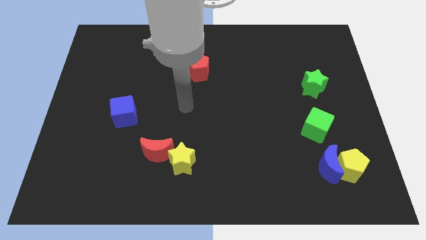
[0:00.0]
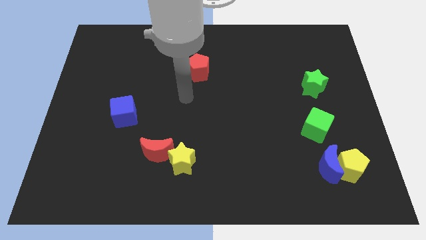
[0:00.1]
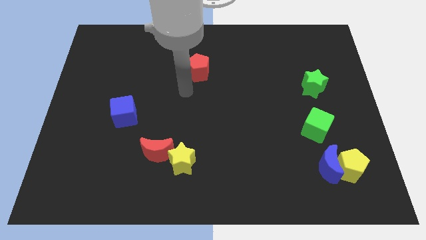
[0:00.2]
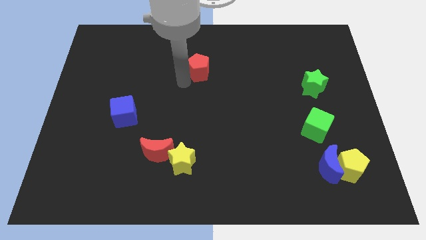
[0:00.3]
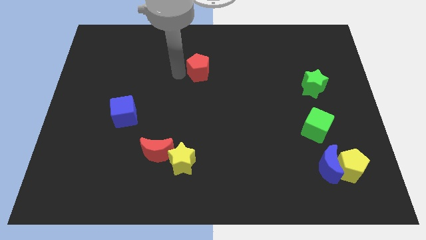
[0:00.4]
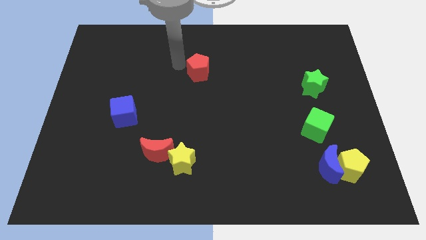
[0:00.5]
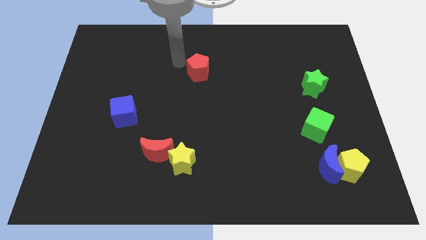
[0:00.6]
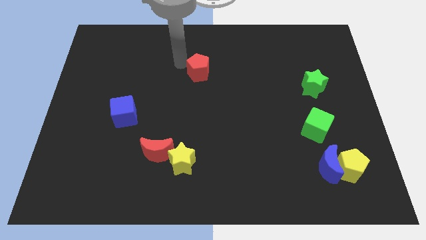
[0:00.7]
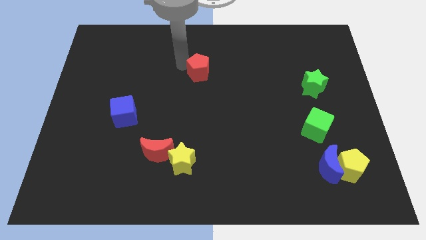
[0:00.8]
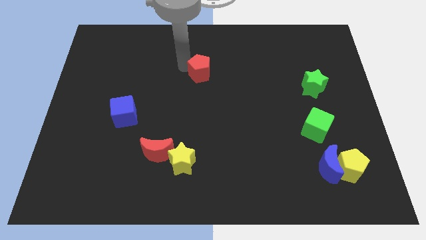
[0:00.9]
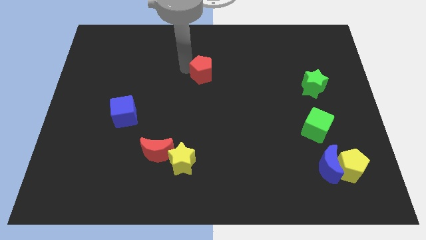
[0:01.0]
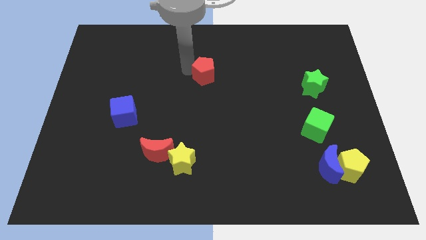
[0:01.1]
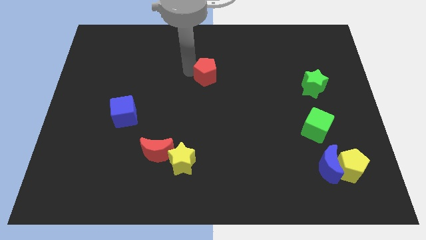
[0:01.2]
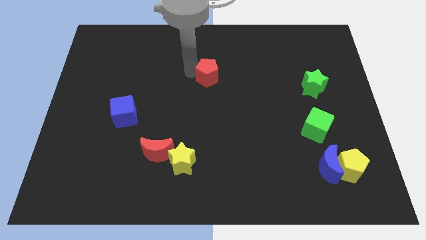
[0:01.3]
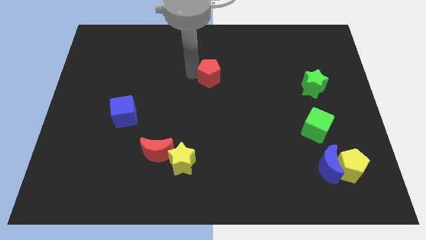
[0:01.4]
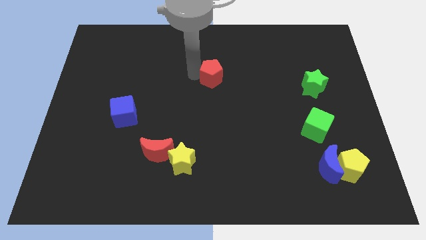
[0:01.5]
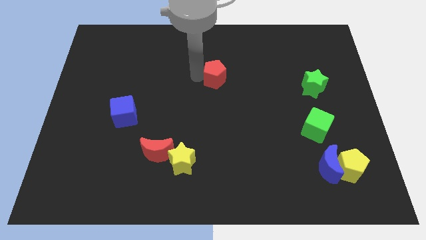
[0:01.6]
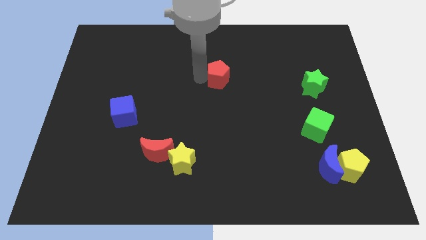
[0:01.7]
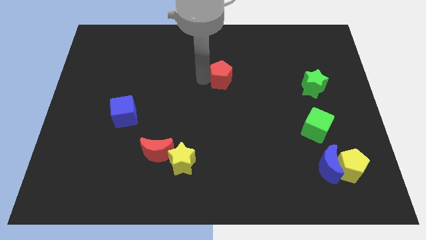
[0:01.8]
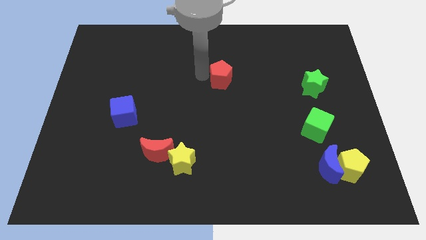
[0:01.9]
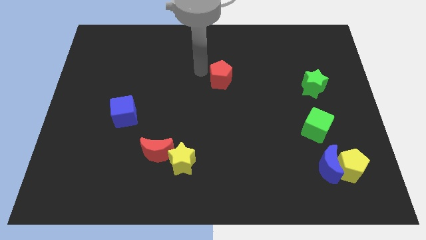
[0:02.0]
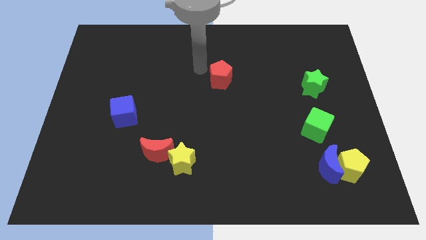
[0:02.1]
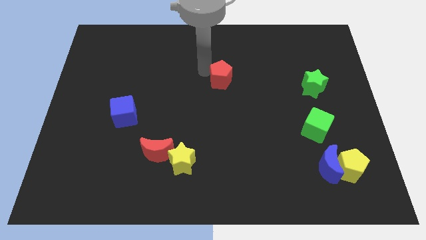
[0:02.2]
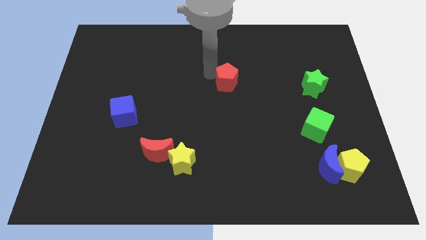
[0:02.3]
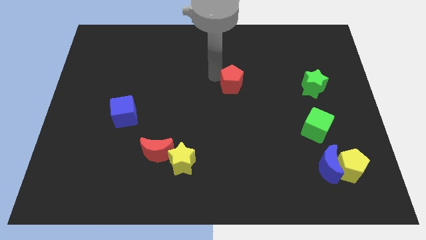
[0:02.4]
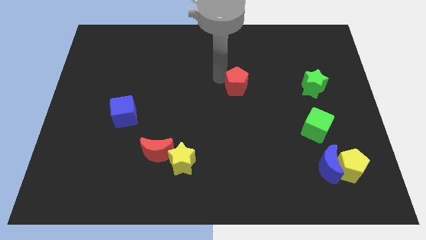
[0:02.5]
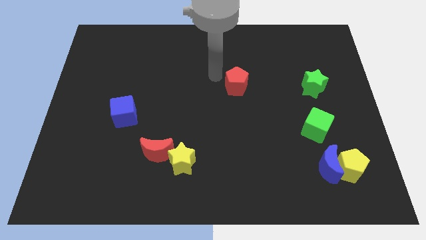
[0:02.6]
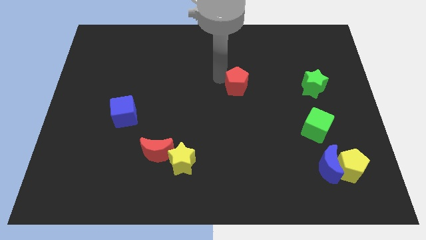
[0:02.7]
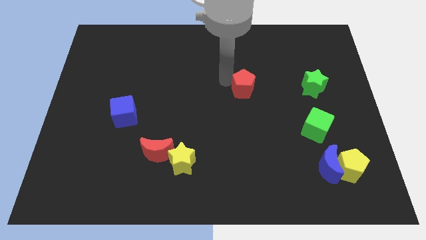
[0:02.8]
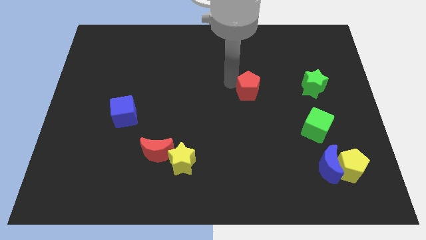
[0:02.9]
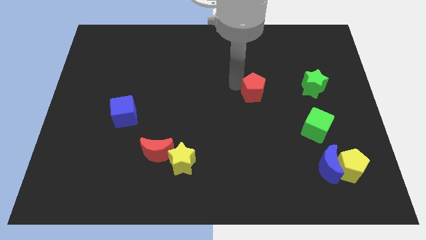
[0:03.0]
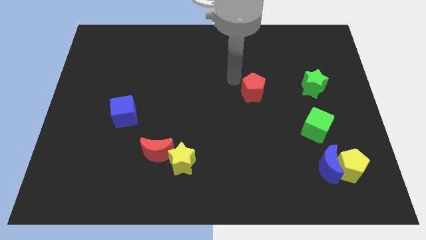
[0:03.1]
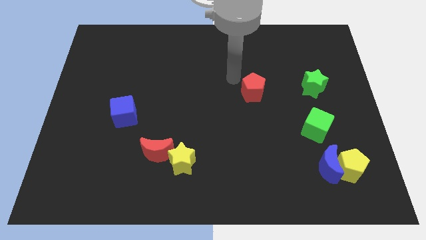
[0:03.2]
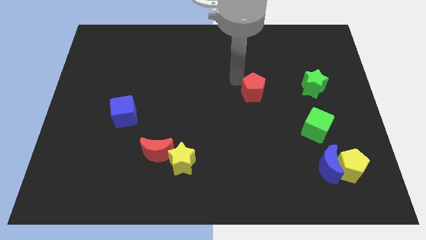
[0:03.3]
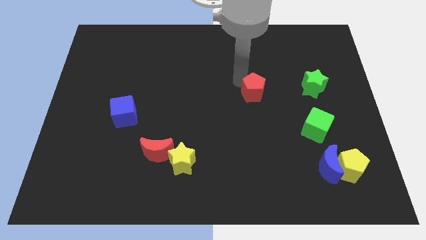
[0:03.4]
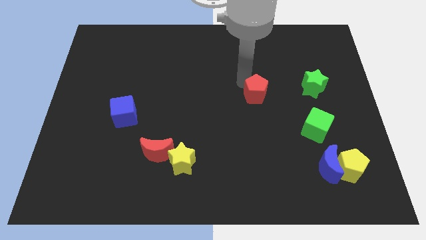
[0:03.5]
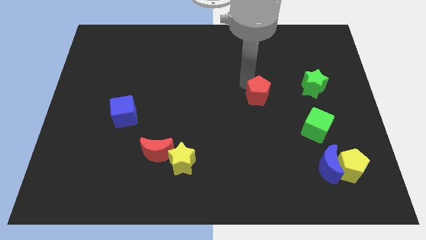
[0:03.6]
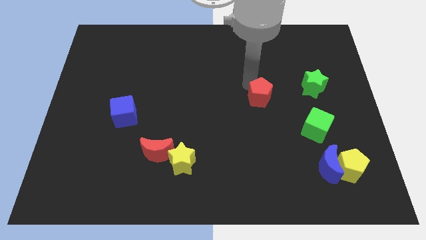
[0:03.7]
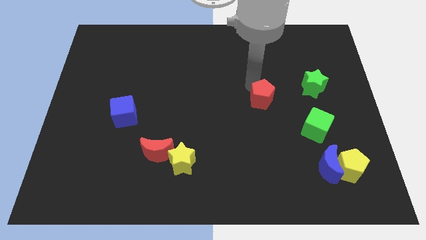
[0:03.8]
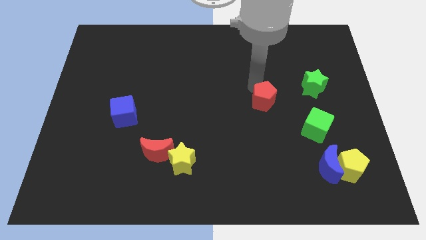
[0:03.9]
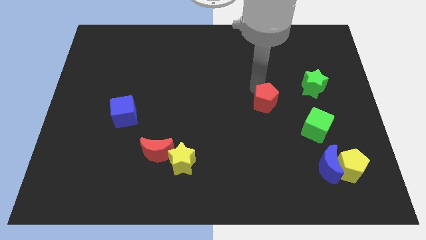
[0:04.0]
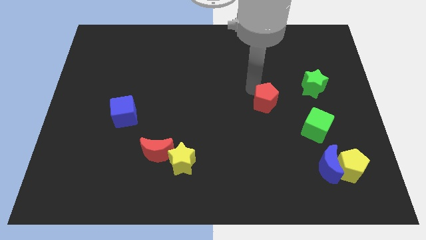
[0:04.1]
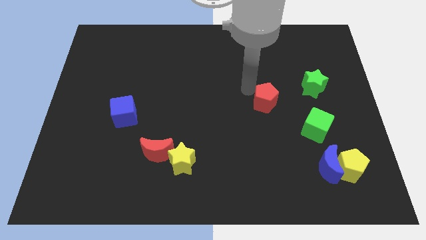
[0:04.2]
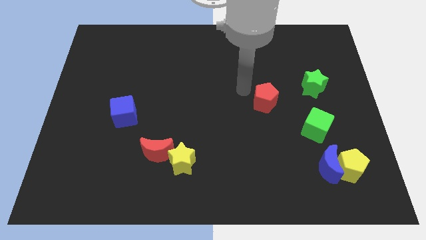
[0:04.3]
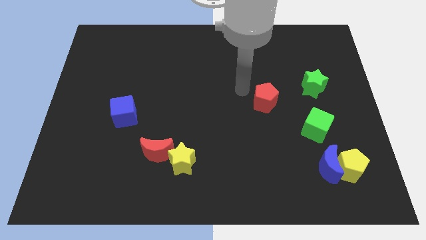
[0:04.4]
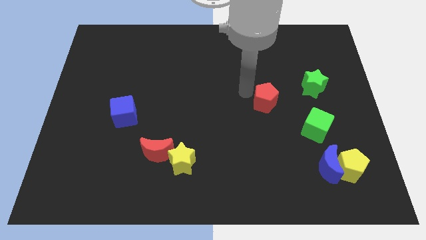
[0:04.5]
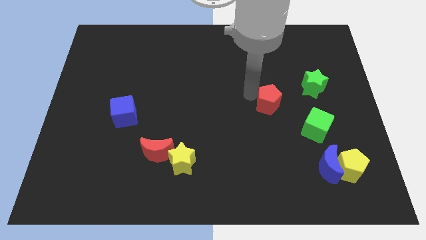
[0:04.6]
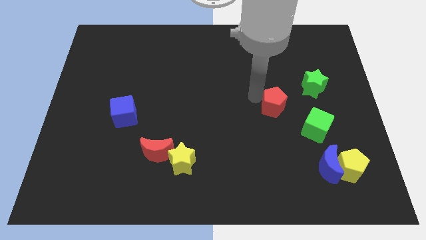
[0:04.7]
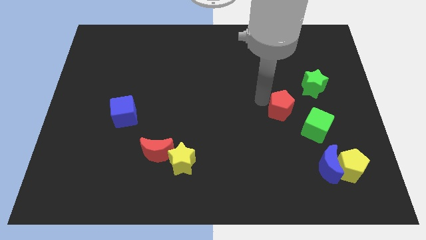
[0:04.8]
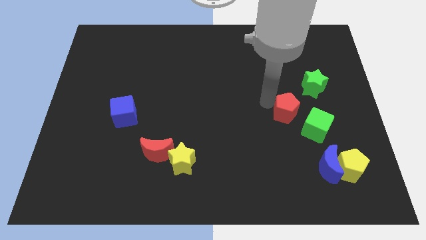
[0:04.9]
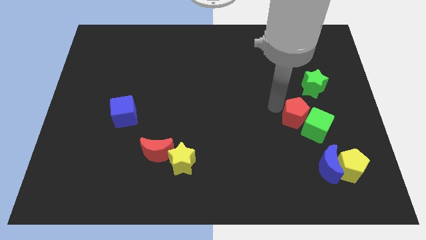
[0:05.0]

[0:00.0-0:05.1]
push the red pentagon towards the green cube

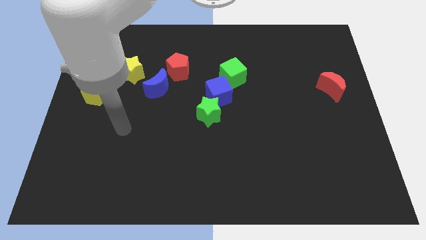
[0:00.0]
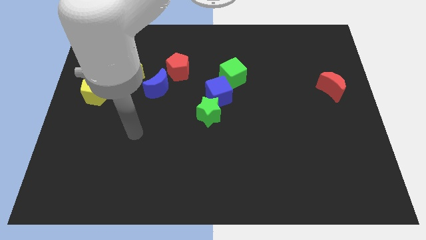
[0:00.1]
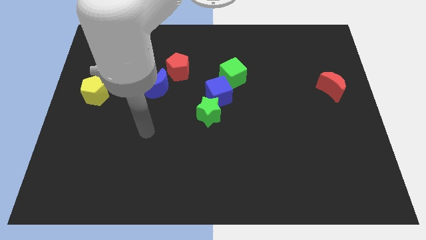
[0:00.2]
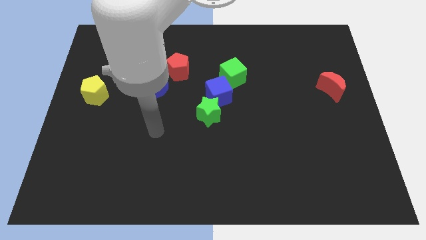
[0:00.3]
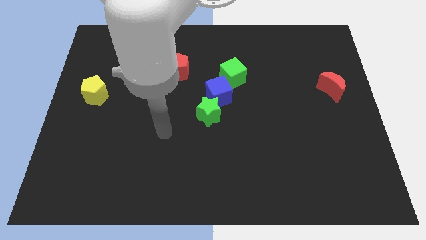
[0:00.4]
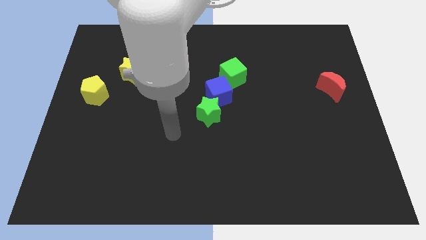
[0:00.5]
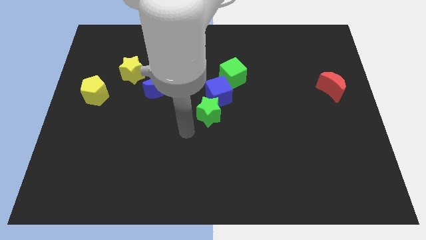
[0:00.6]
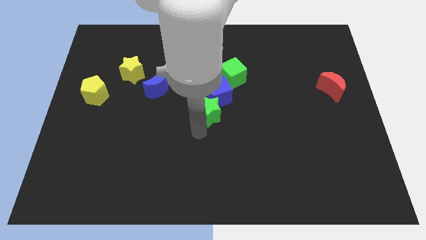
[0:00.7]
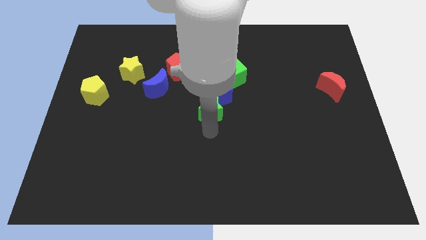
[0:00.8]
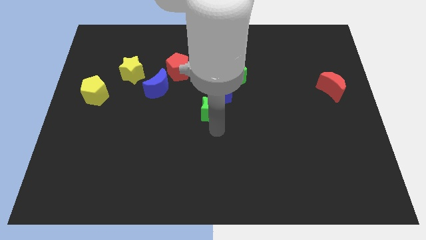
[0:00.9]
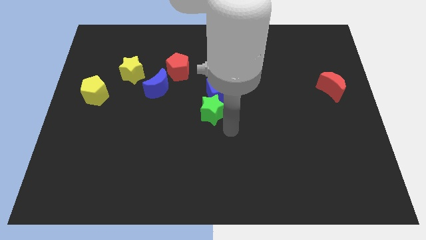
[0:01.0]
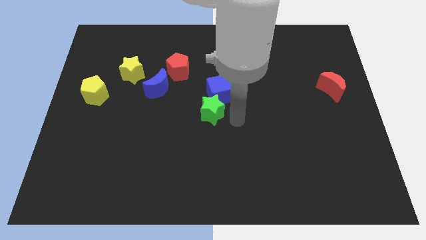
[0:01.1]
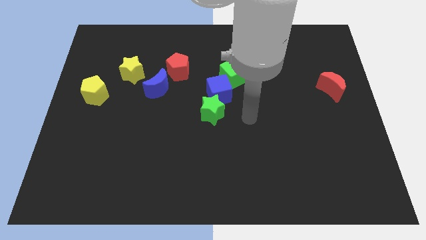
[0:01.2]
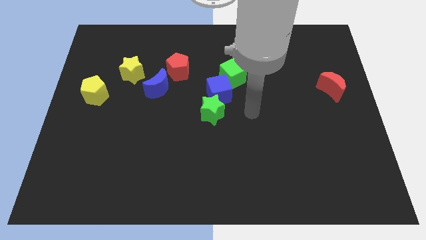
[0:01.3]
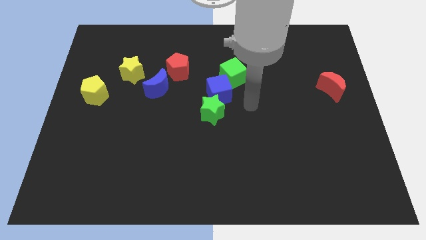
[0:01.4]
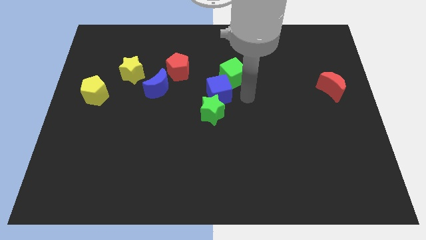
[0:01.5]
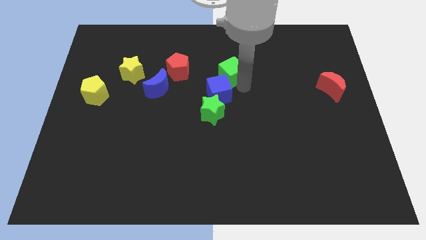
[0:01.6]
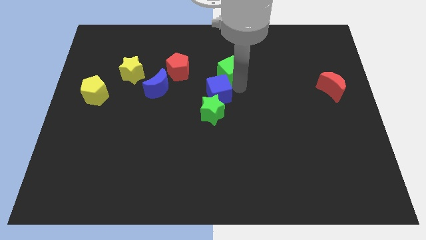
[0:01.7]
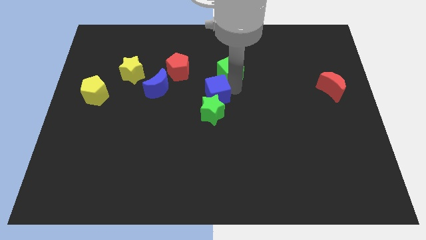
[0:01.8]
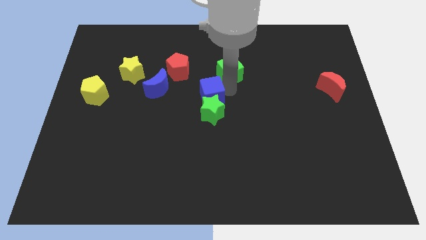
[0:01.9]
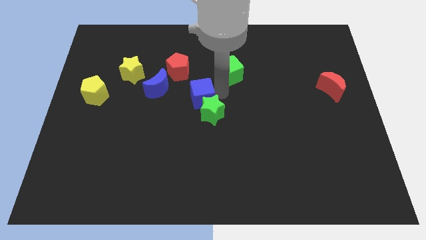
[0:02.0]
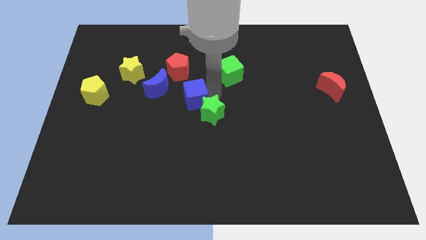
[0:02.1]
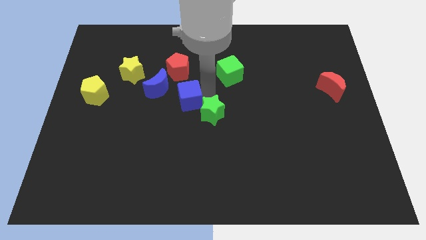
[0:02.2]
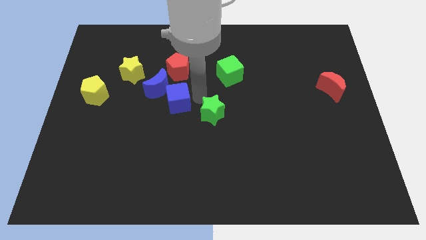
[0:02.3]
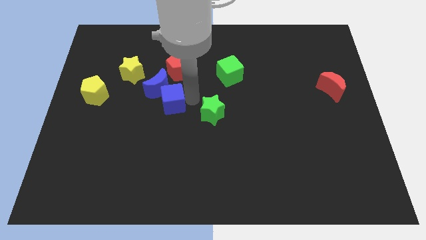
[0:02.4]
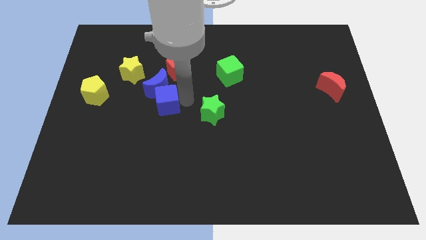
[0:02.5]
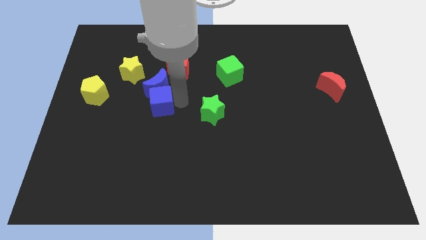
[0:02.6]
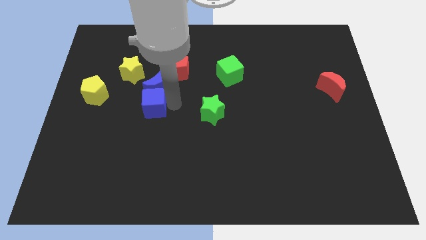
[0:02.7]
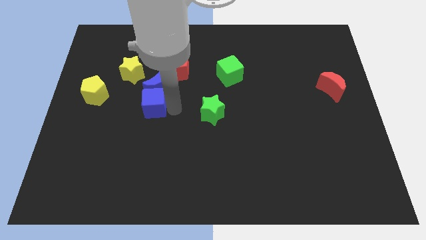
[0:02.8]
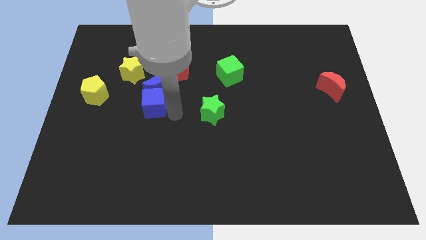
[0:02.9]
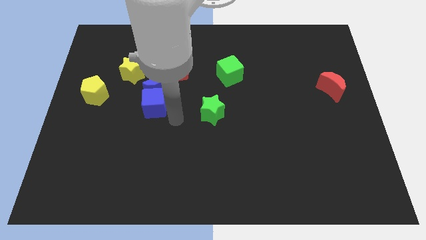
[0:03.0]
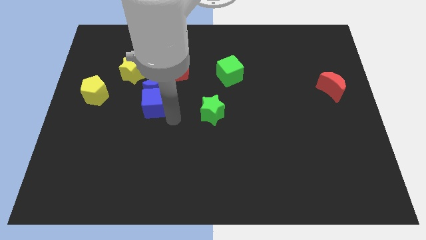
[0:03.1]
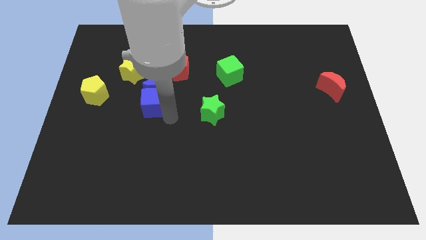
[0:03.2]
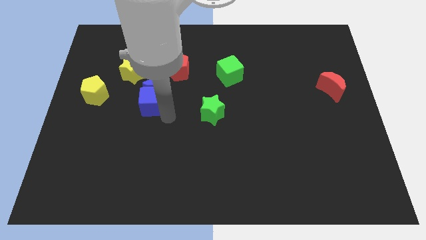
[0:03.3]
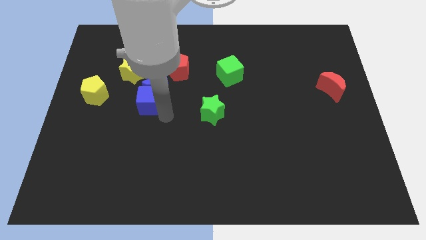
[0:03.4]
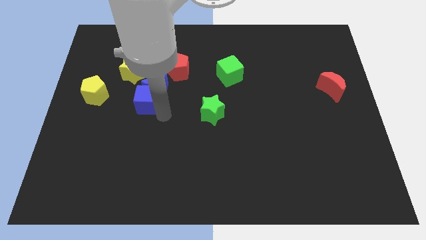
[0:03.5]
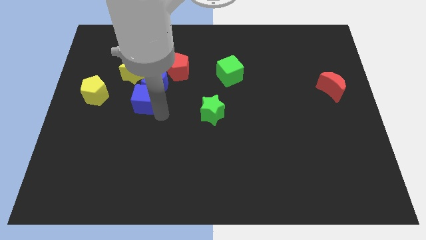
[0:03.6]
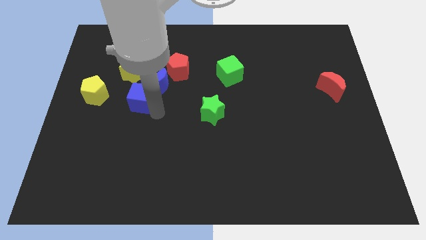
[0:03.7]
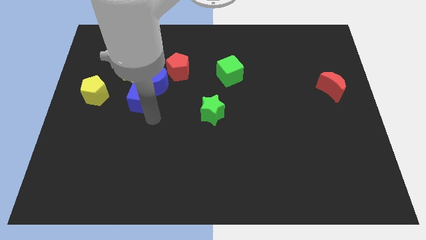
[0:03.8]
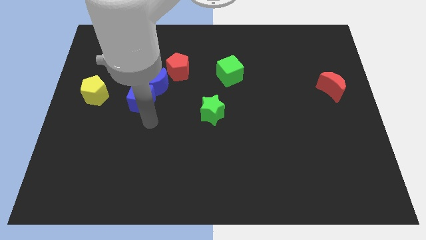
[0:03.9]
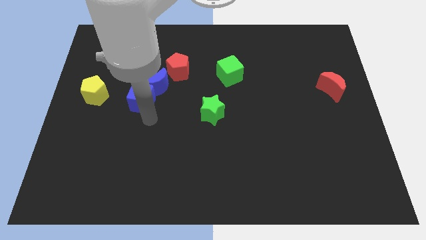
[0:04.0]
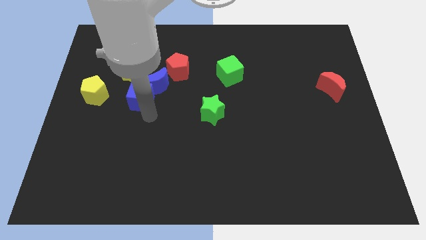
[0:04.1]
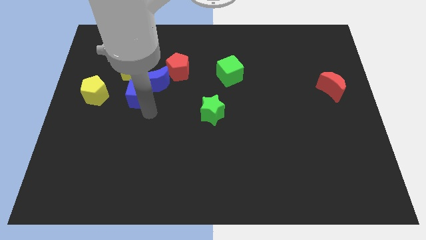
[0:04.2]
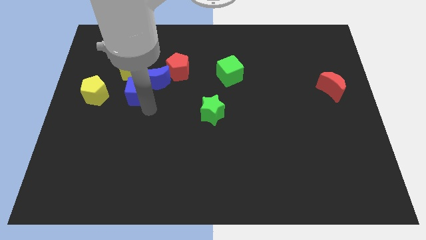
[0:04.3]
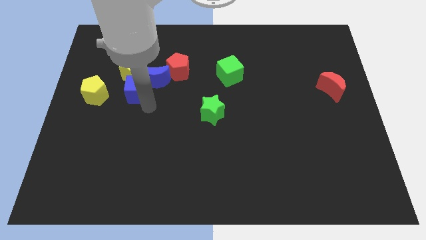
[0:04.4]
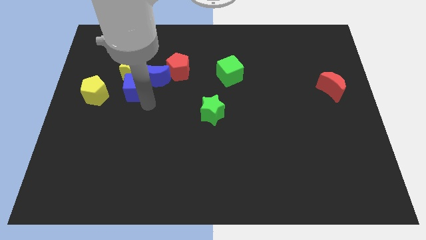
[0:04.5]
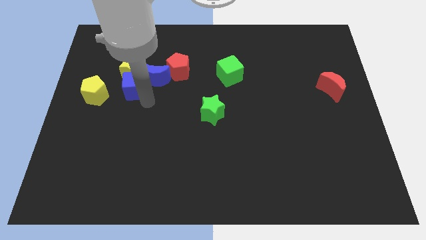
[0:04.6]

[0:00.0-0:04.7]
slide the blue cube towards the yellow star
